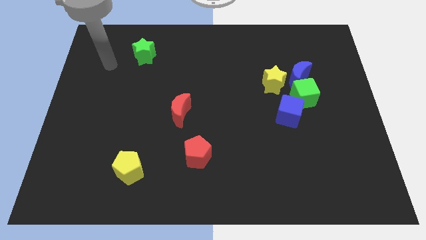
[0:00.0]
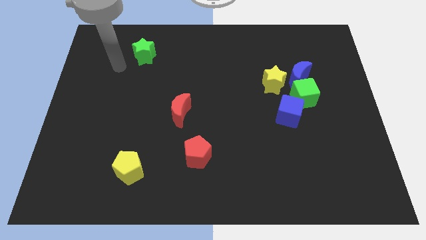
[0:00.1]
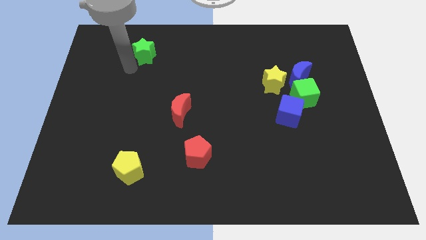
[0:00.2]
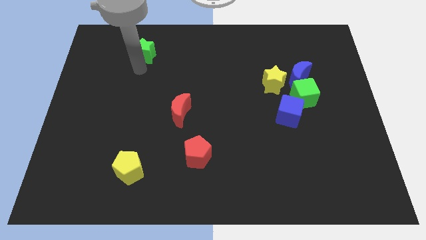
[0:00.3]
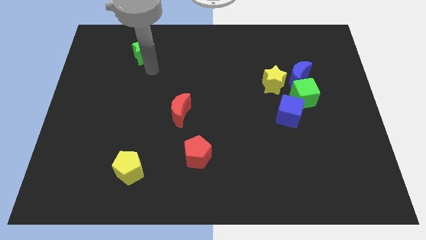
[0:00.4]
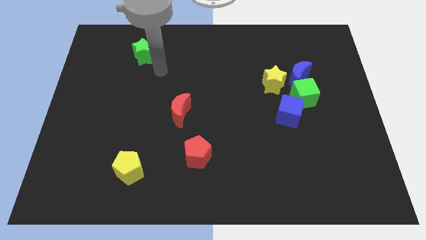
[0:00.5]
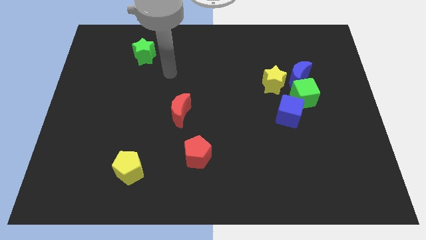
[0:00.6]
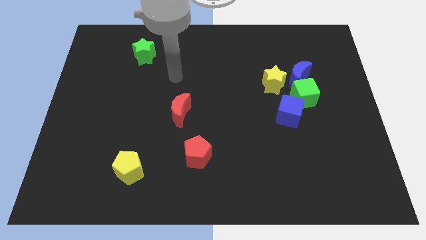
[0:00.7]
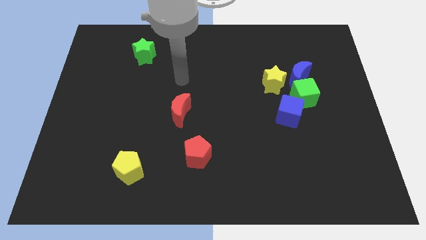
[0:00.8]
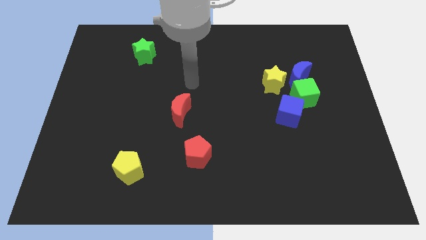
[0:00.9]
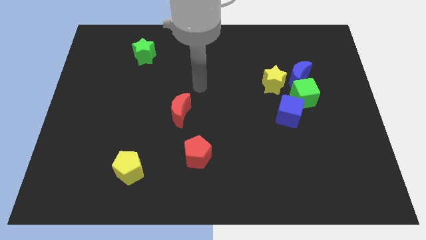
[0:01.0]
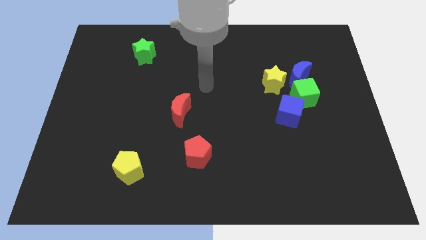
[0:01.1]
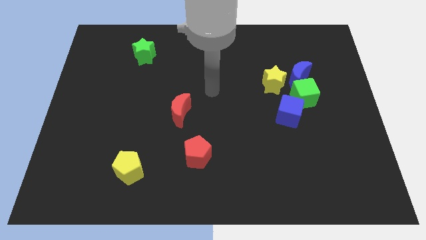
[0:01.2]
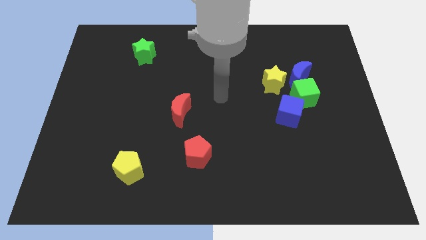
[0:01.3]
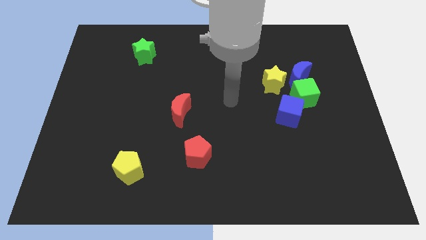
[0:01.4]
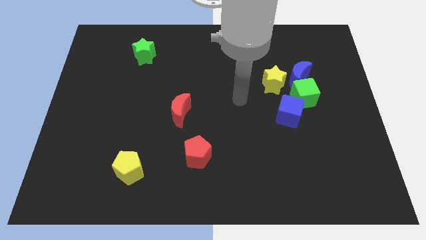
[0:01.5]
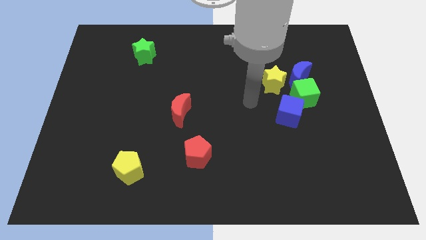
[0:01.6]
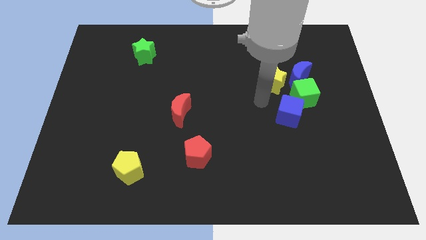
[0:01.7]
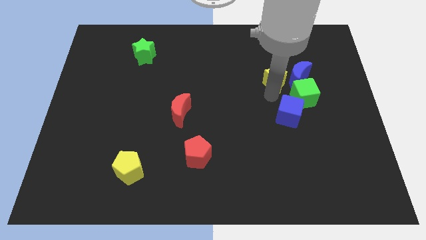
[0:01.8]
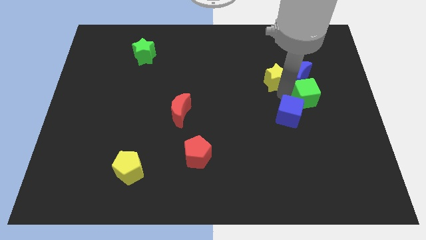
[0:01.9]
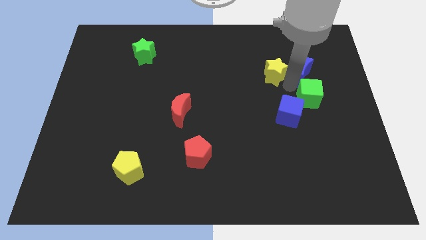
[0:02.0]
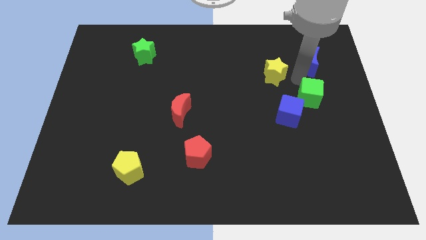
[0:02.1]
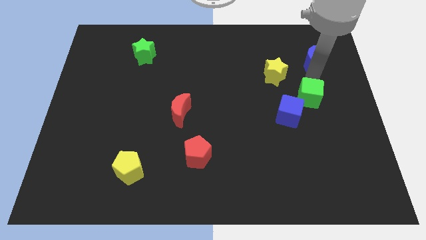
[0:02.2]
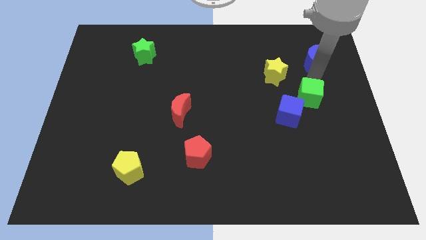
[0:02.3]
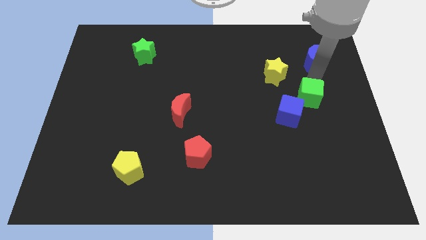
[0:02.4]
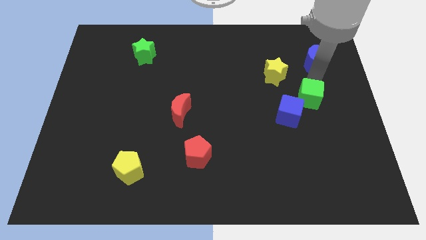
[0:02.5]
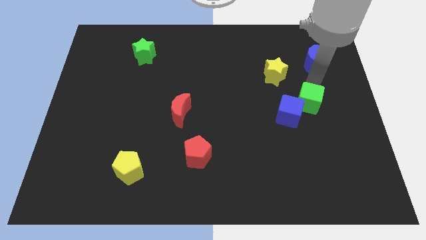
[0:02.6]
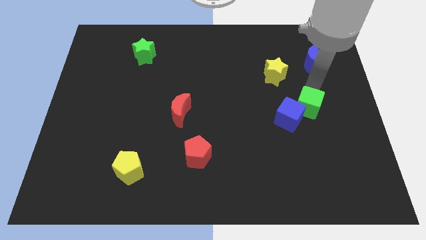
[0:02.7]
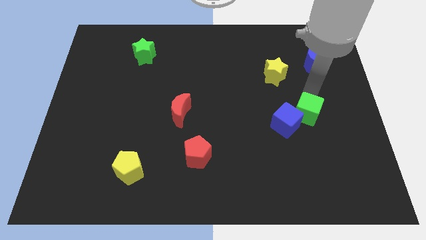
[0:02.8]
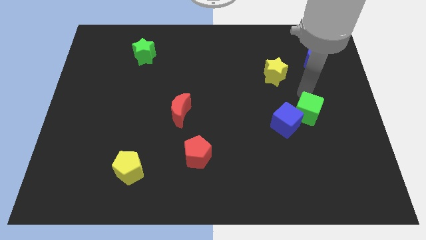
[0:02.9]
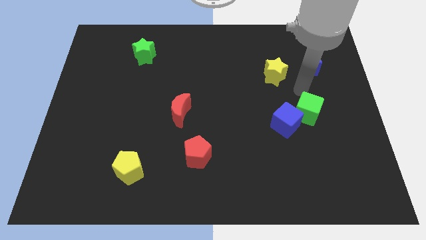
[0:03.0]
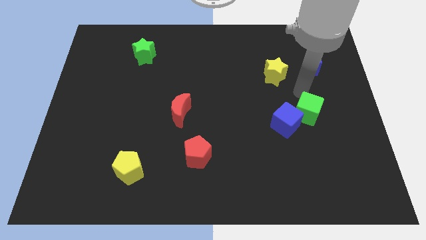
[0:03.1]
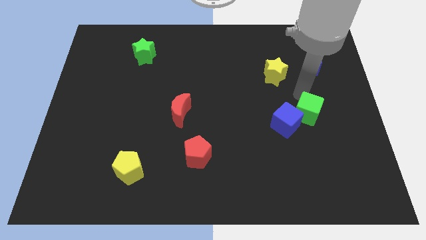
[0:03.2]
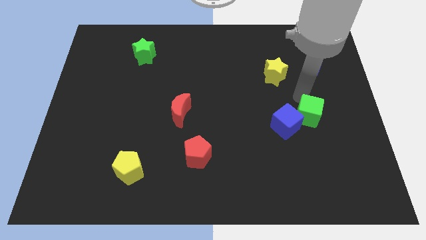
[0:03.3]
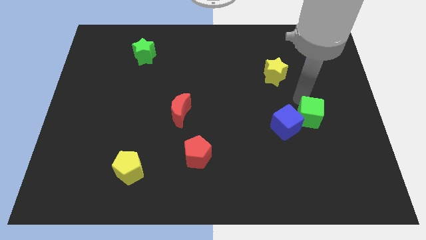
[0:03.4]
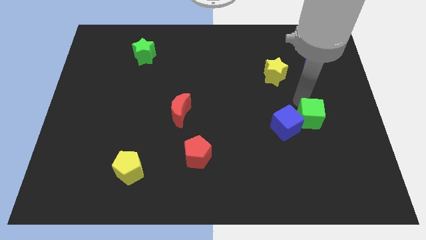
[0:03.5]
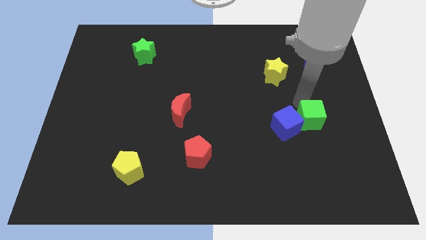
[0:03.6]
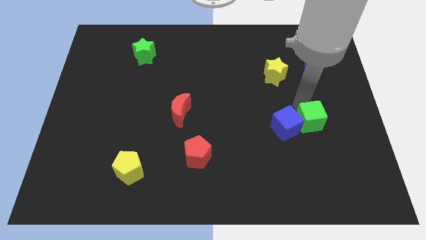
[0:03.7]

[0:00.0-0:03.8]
push the green cube down slightly

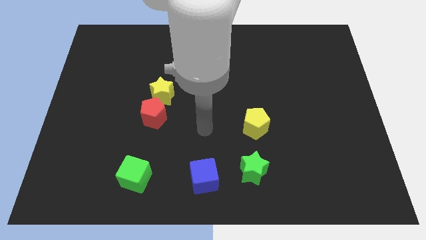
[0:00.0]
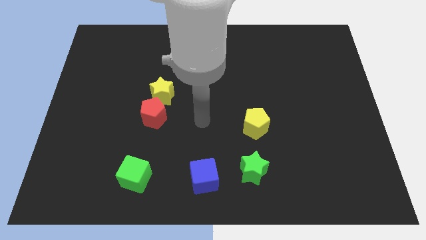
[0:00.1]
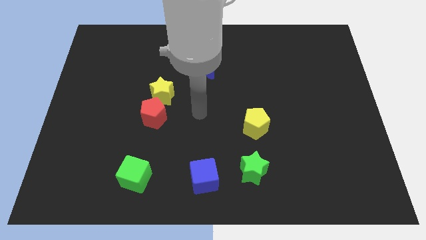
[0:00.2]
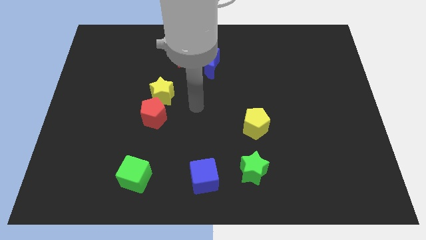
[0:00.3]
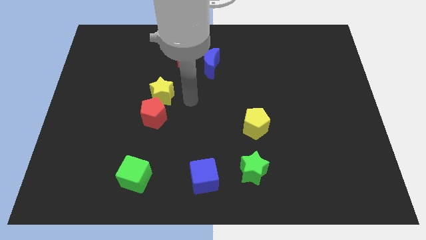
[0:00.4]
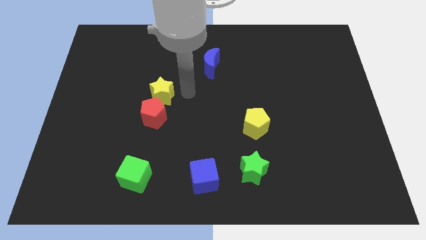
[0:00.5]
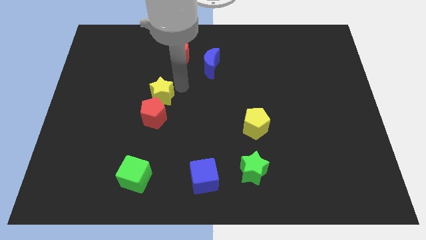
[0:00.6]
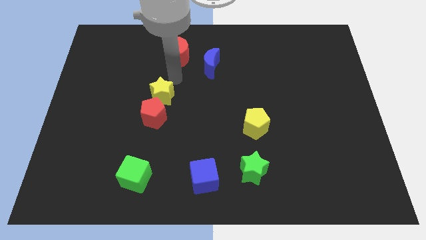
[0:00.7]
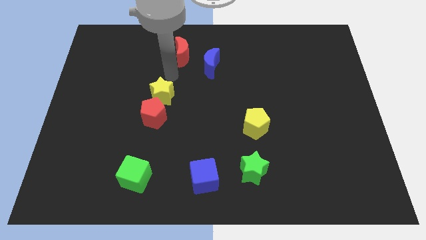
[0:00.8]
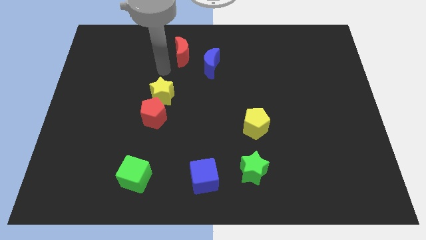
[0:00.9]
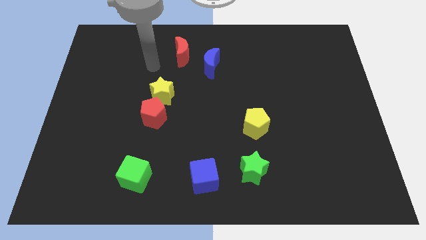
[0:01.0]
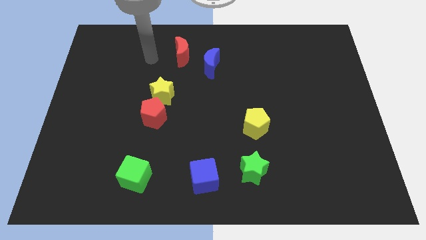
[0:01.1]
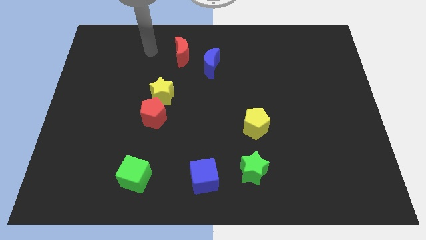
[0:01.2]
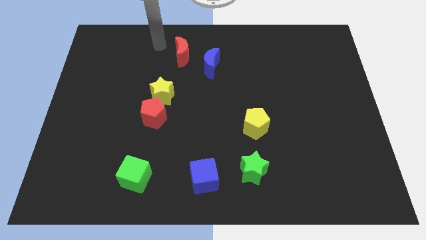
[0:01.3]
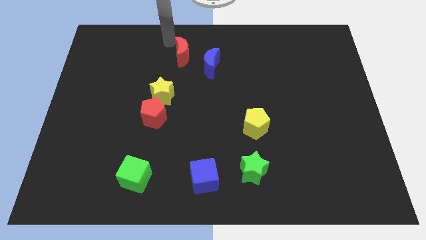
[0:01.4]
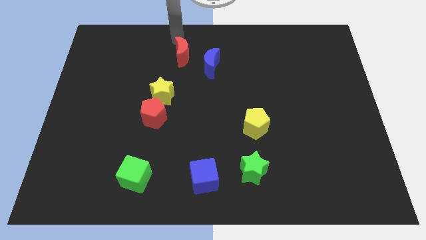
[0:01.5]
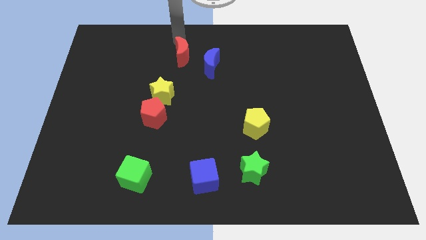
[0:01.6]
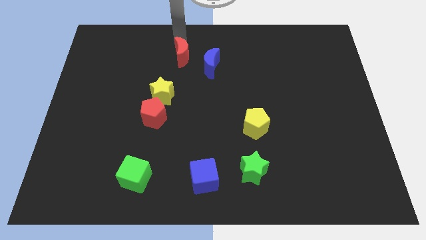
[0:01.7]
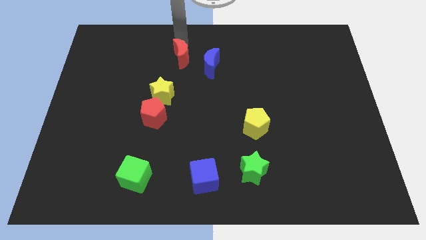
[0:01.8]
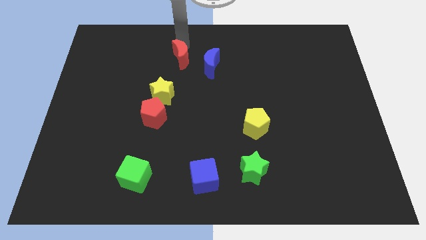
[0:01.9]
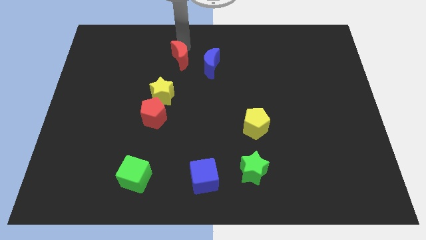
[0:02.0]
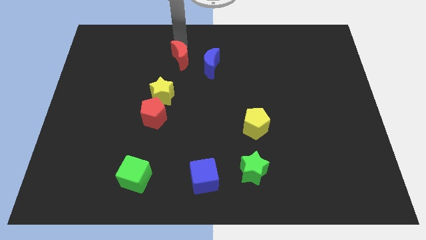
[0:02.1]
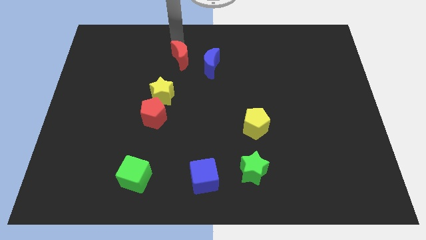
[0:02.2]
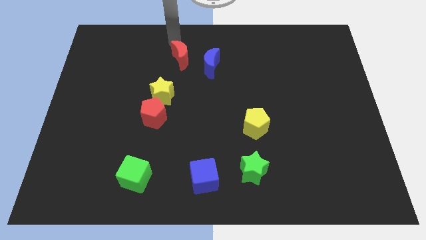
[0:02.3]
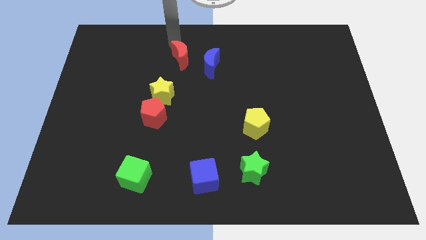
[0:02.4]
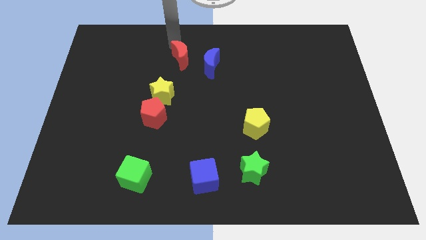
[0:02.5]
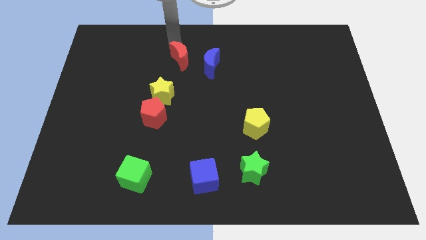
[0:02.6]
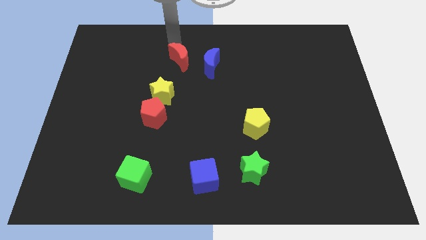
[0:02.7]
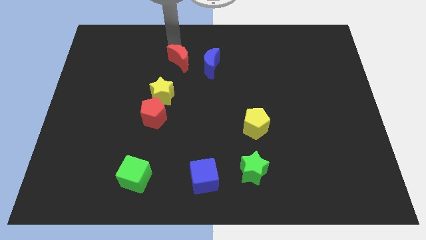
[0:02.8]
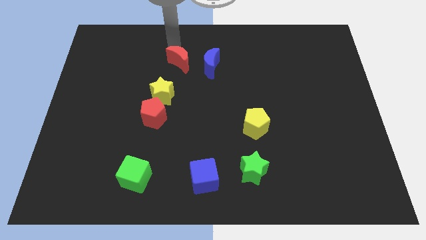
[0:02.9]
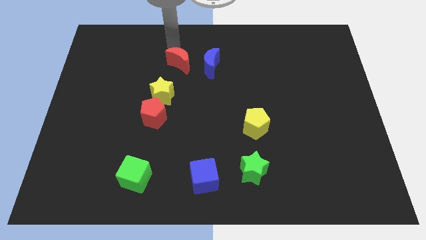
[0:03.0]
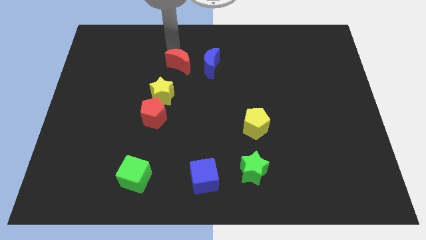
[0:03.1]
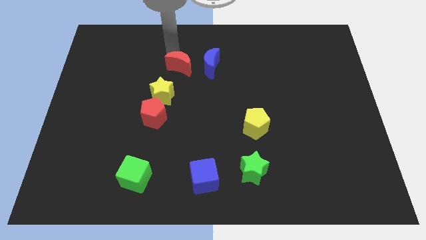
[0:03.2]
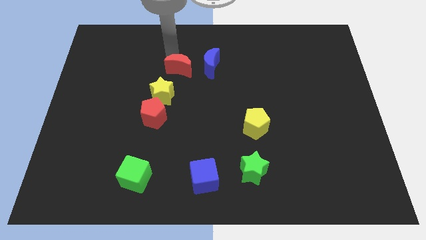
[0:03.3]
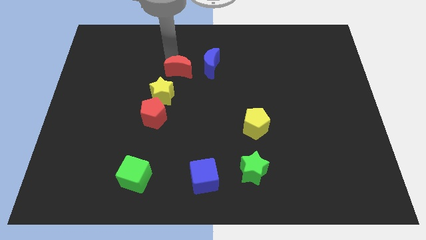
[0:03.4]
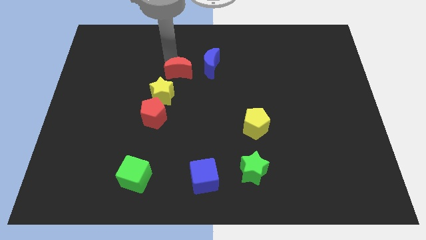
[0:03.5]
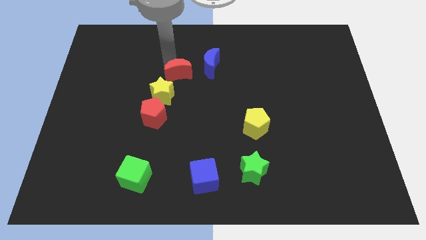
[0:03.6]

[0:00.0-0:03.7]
push the red moon down a little bit

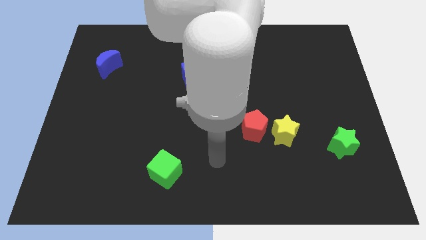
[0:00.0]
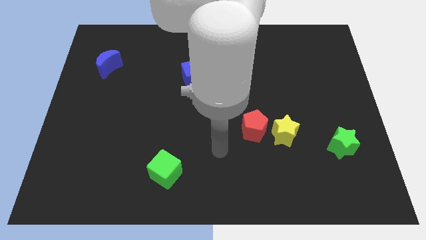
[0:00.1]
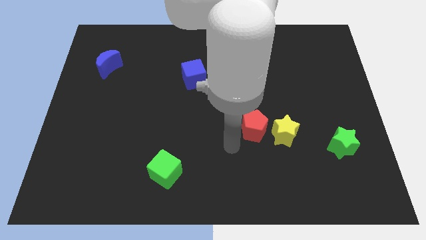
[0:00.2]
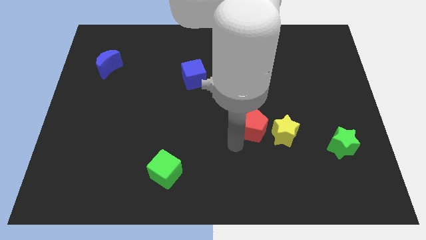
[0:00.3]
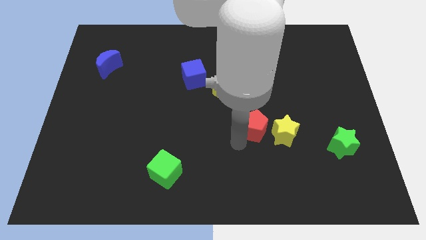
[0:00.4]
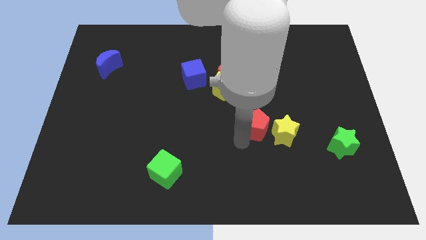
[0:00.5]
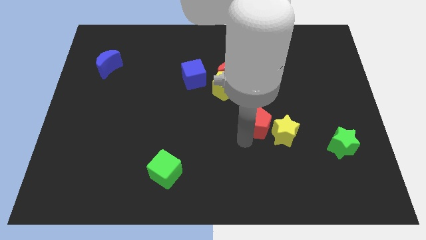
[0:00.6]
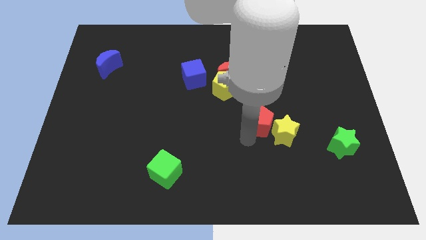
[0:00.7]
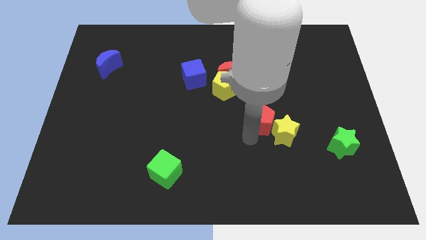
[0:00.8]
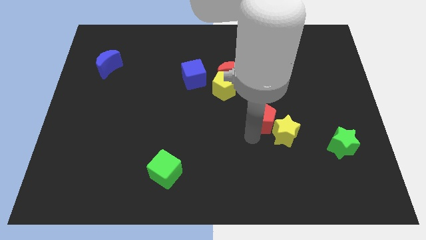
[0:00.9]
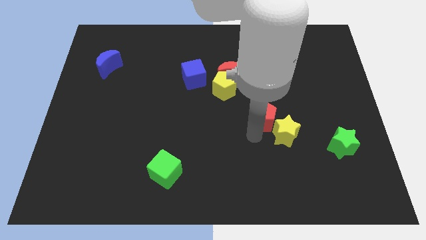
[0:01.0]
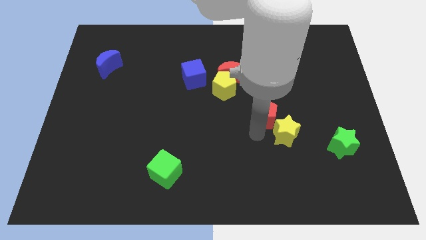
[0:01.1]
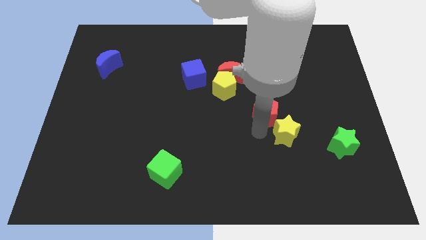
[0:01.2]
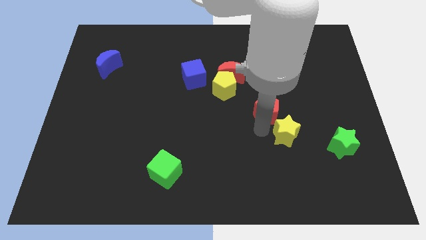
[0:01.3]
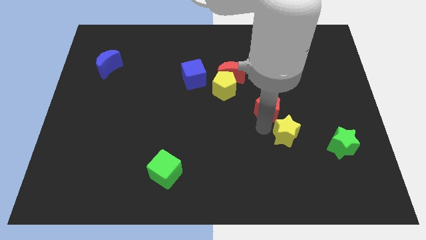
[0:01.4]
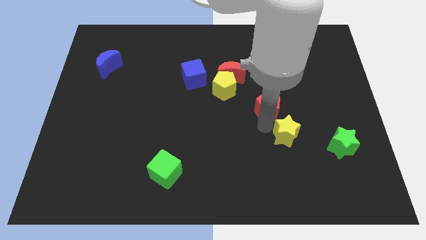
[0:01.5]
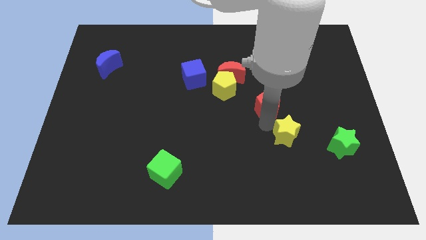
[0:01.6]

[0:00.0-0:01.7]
slightly slide the red pentagon up and right diagonally
